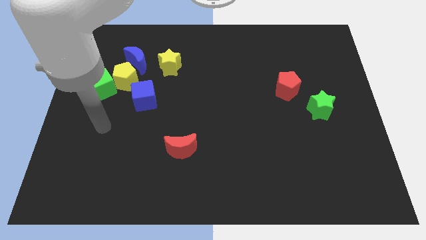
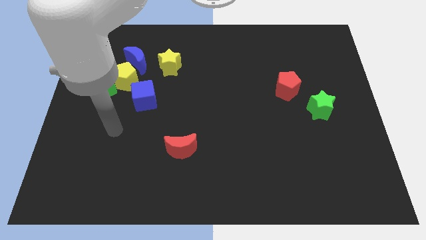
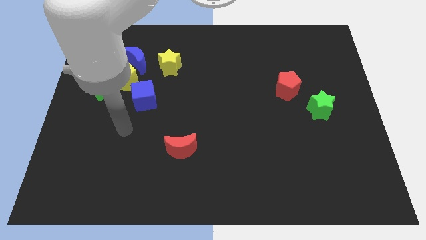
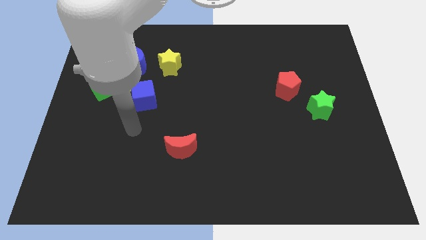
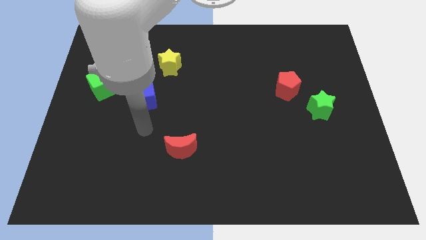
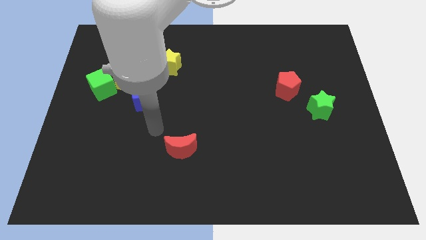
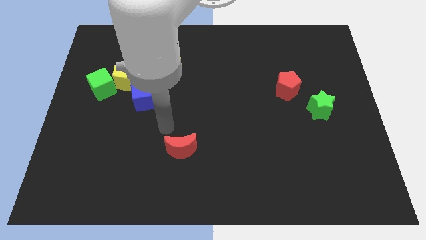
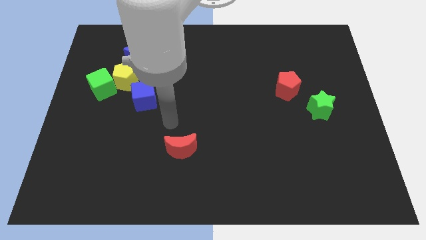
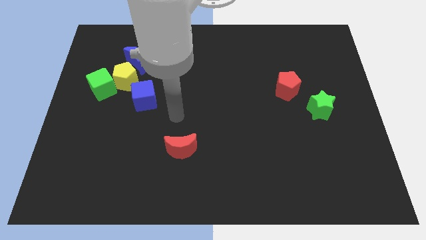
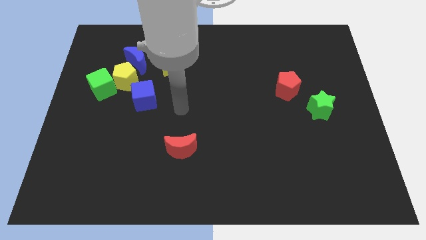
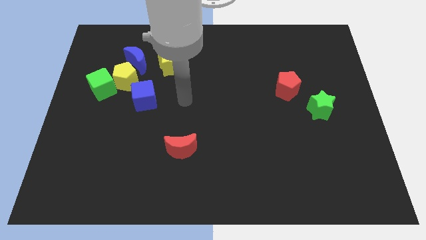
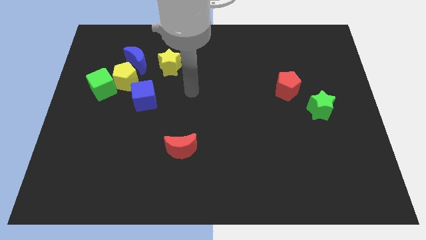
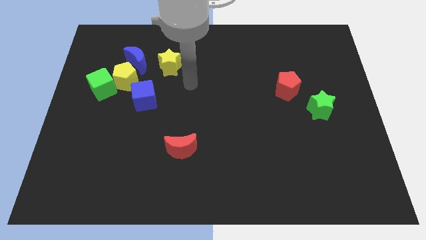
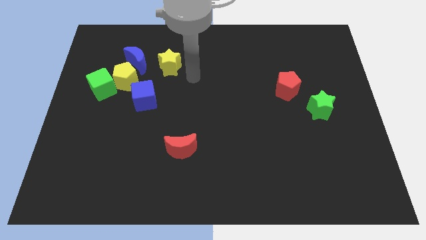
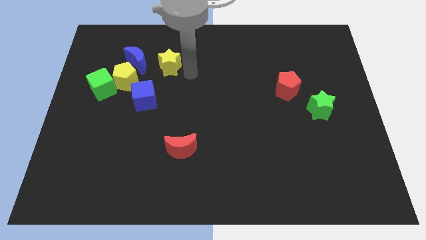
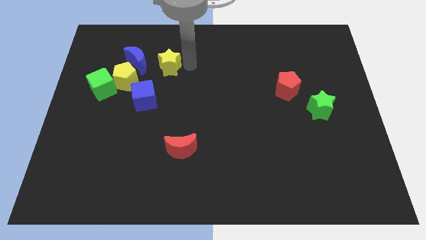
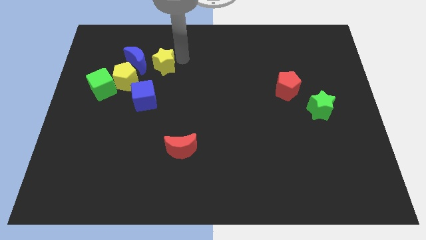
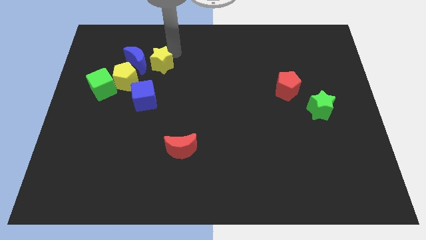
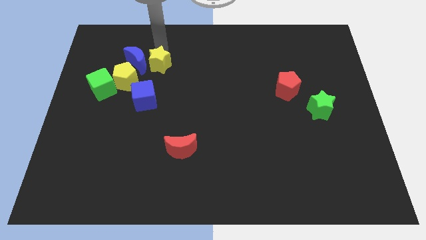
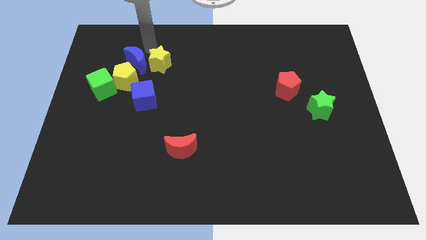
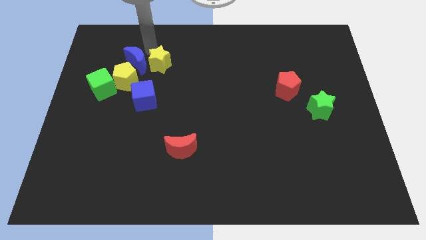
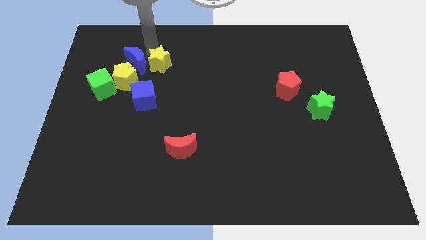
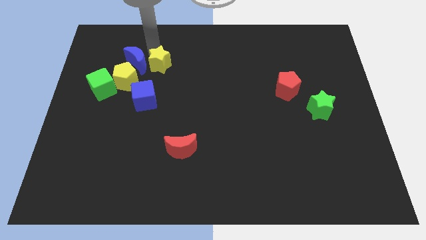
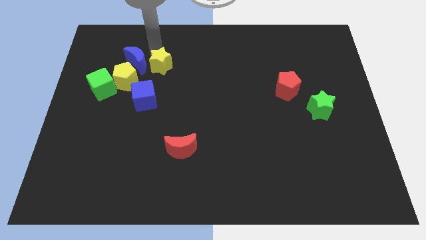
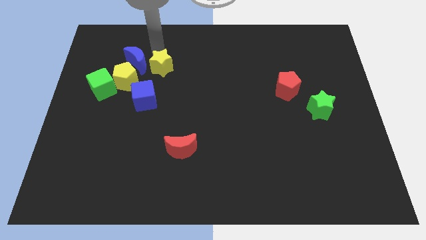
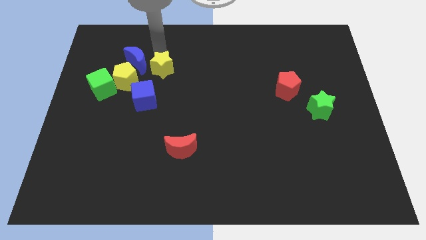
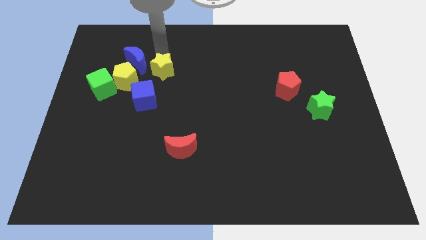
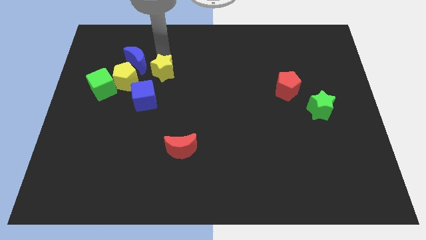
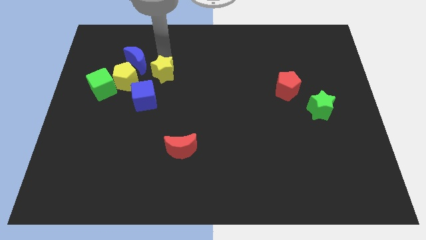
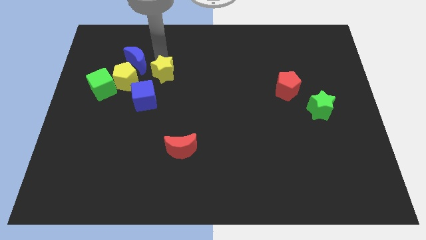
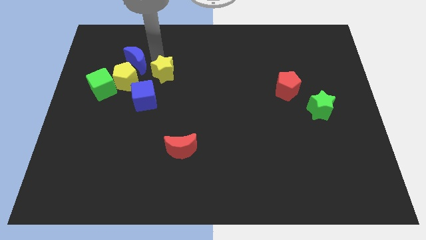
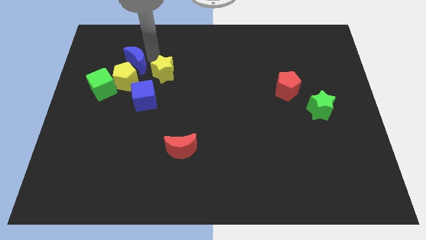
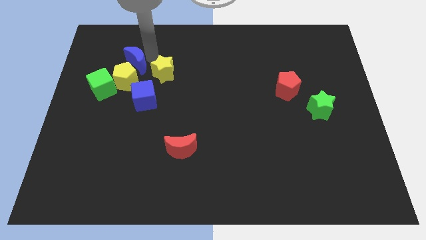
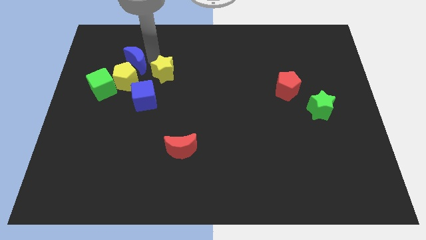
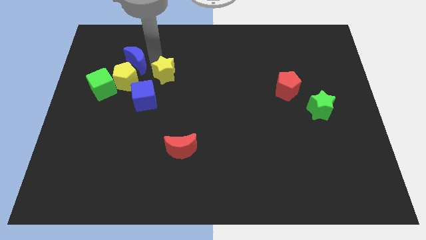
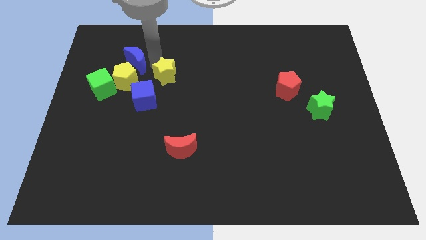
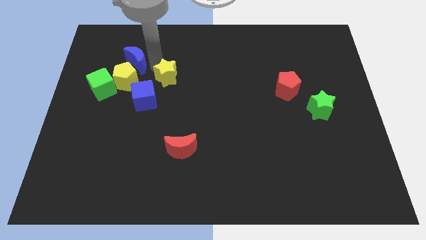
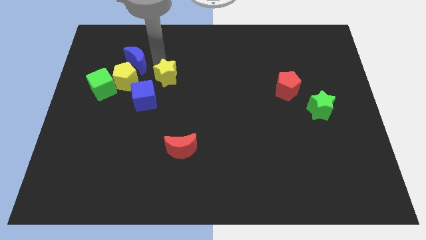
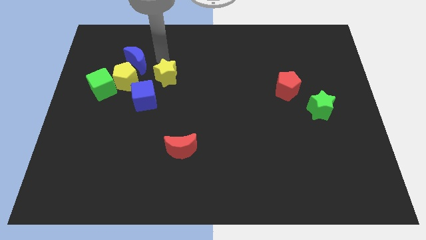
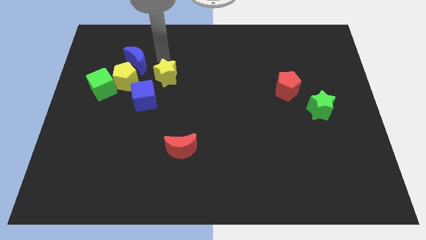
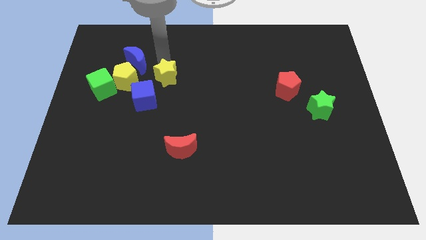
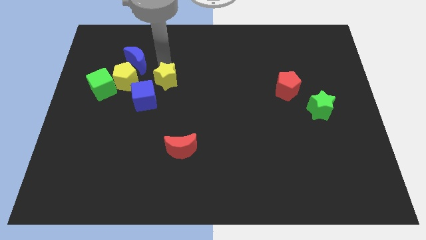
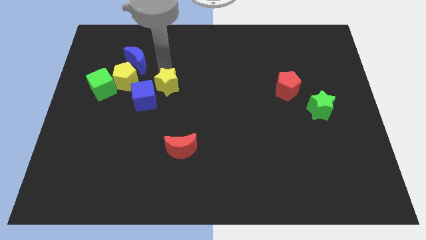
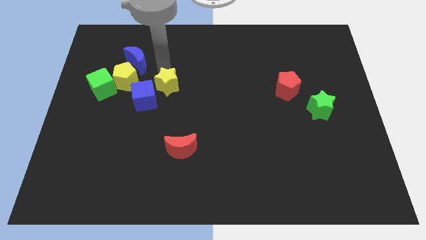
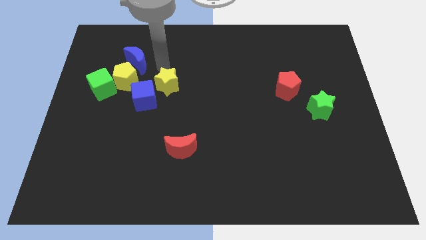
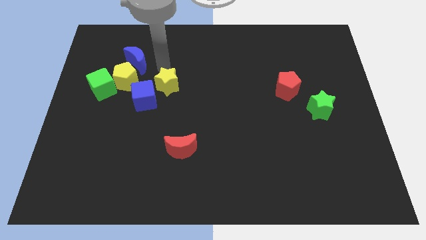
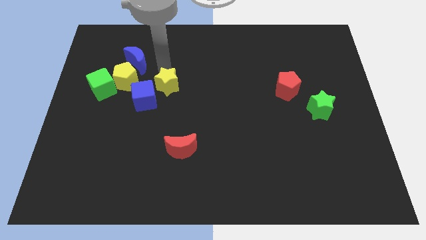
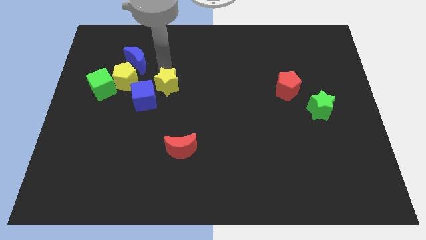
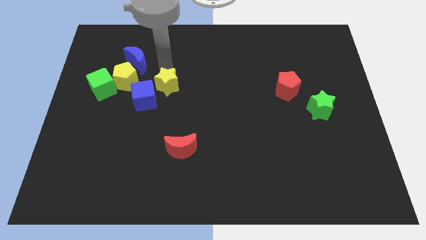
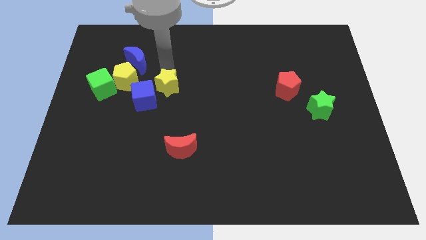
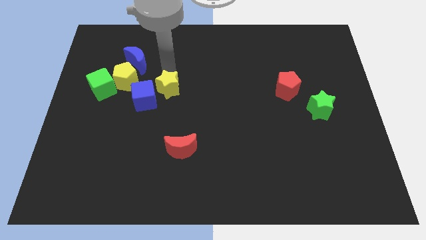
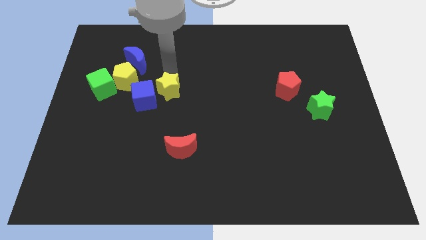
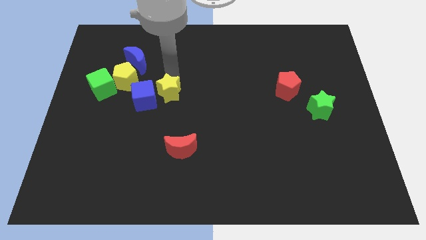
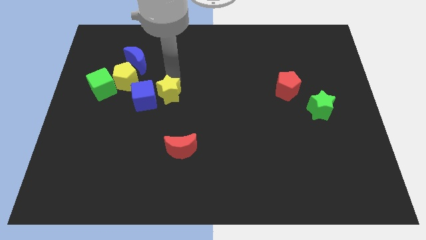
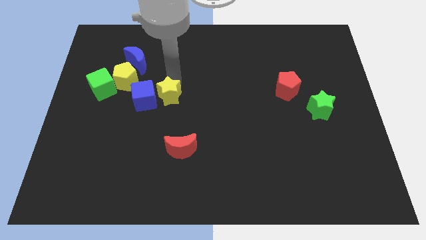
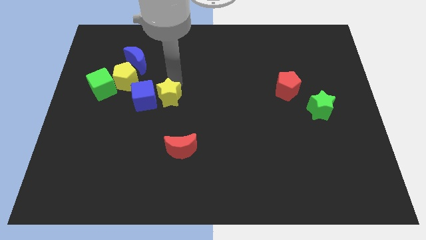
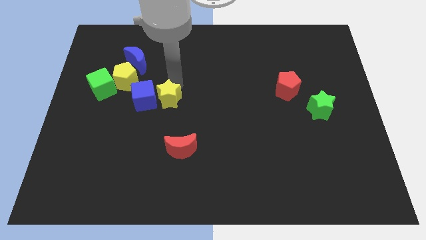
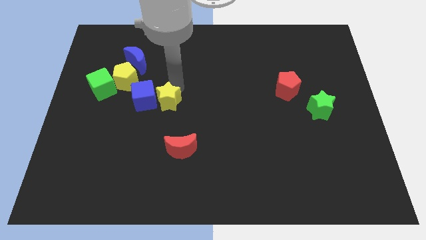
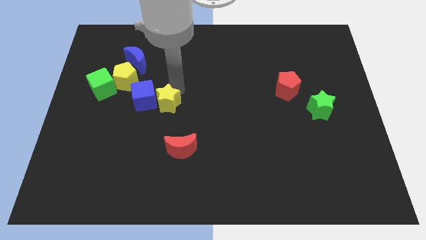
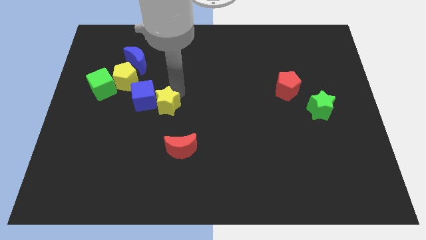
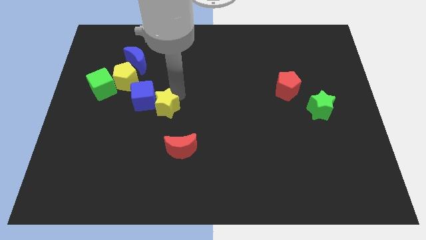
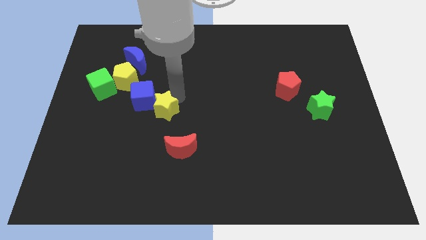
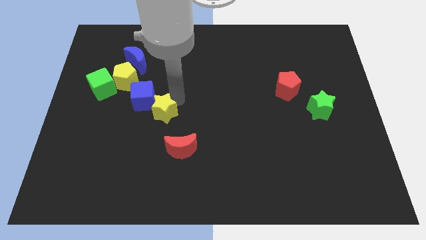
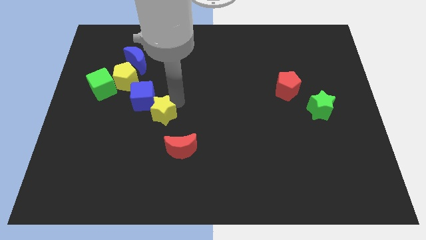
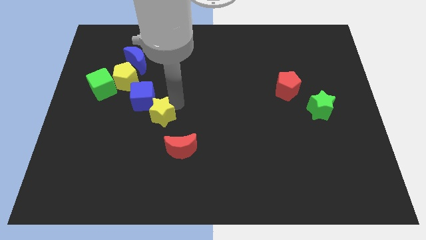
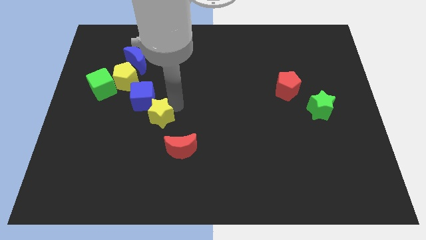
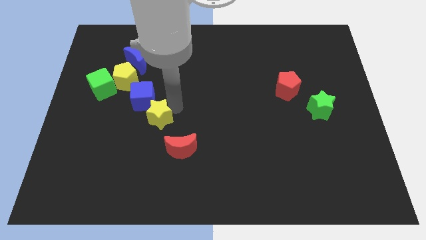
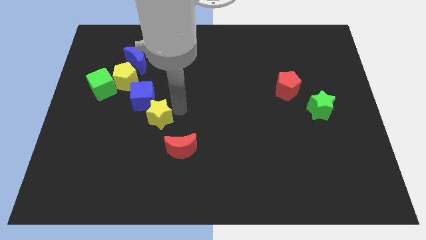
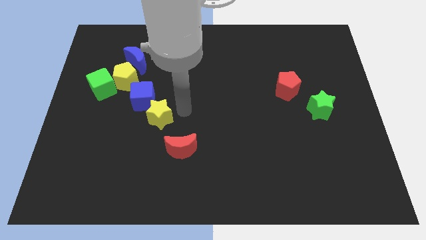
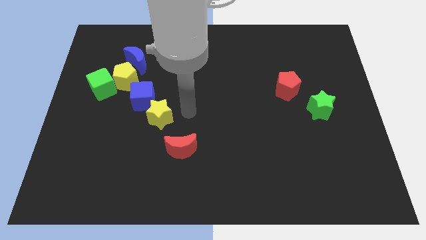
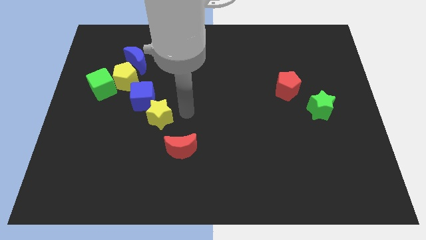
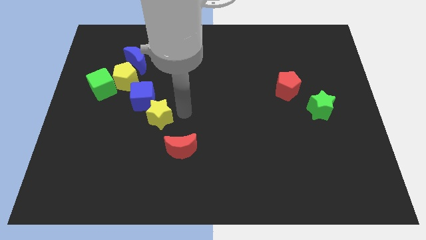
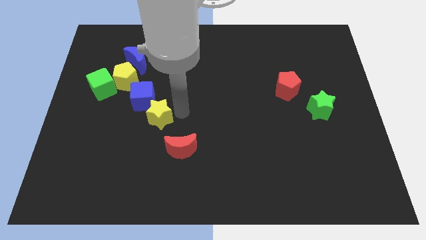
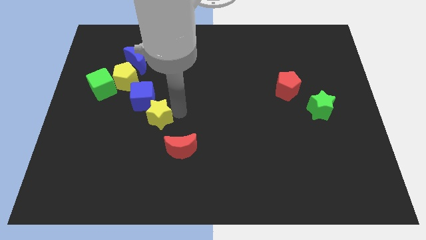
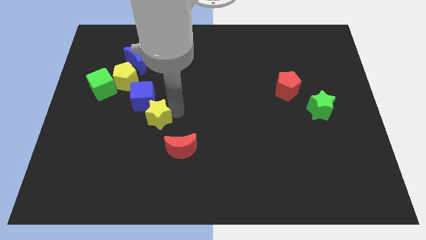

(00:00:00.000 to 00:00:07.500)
push the yellow star downwards and then left slightly

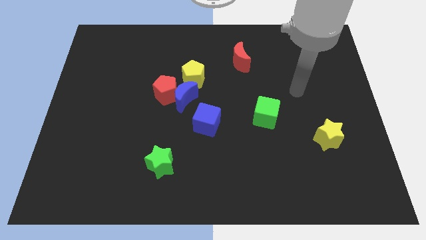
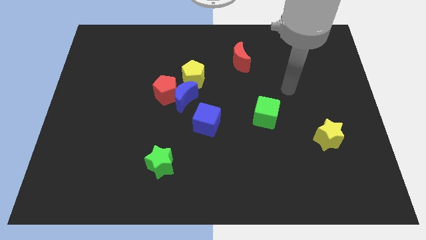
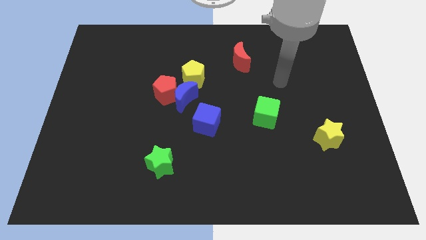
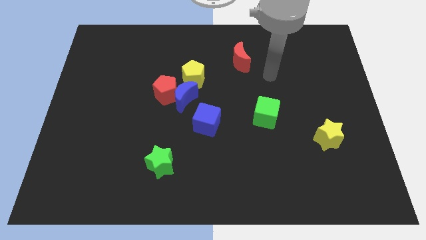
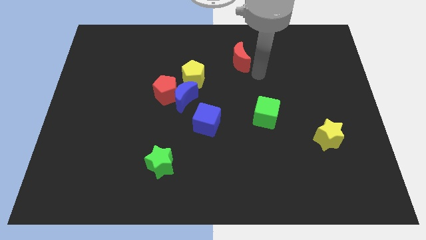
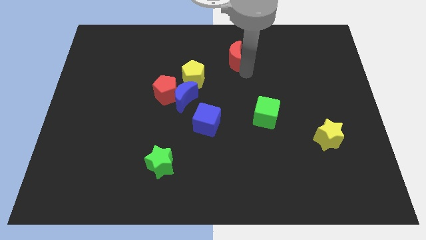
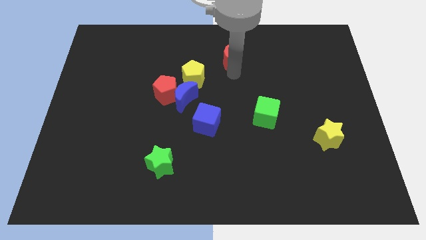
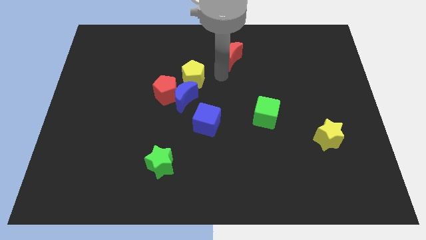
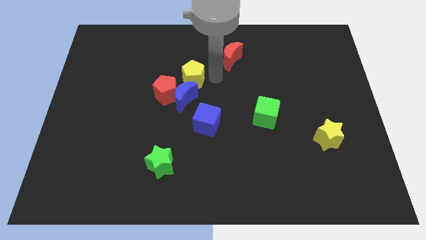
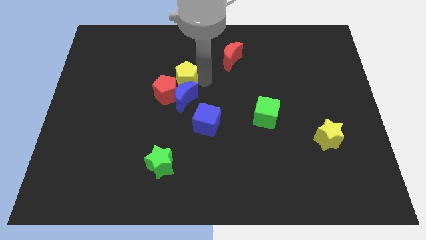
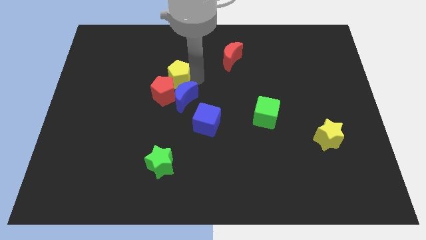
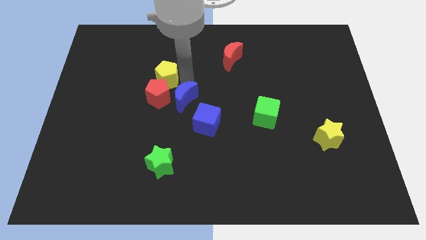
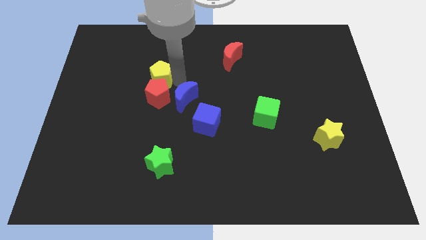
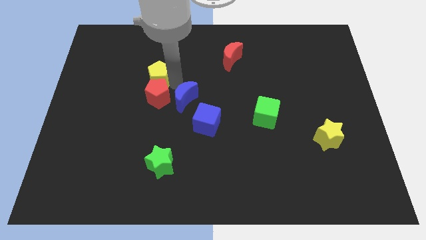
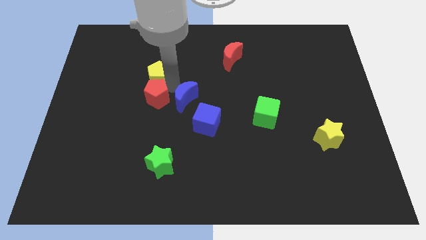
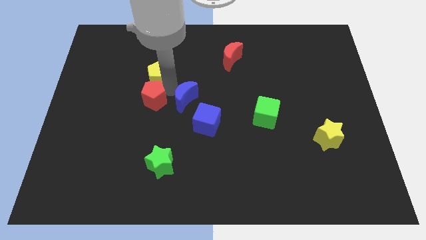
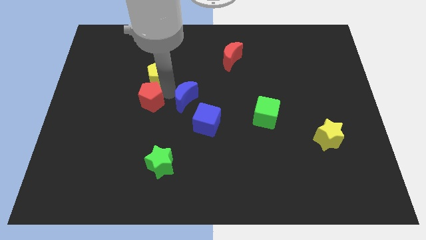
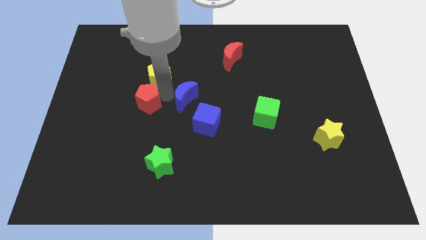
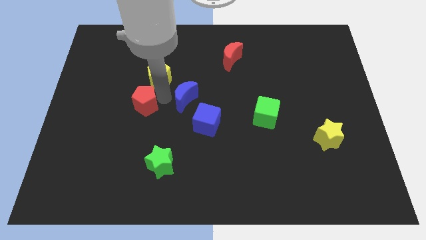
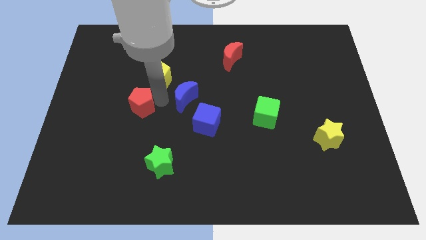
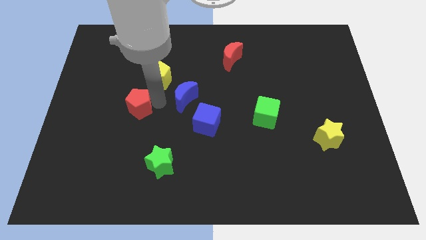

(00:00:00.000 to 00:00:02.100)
slightly move the red pentagon down and then to the left
